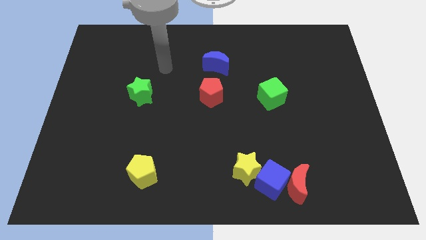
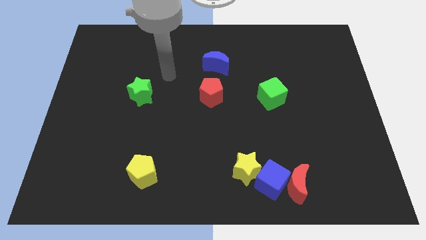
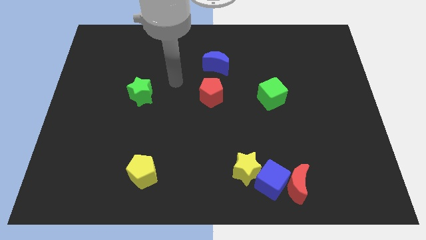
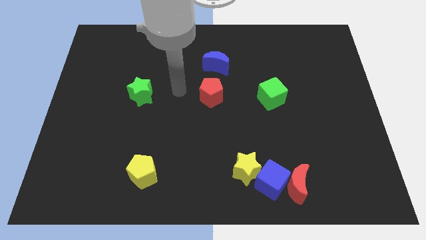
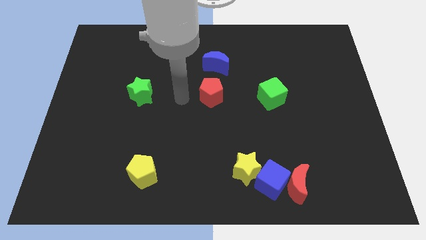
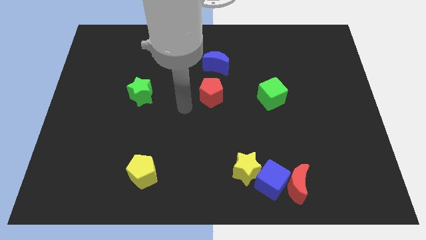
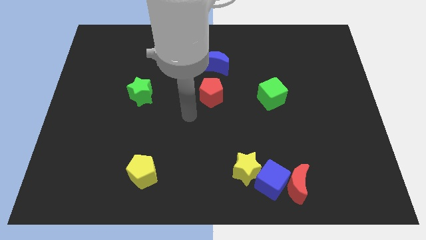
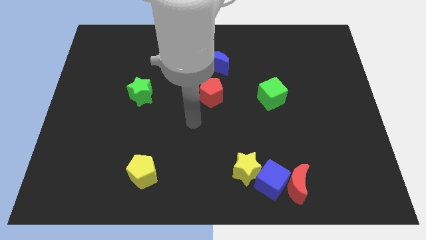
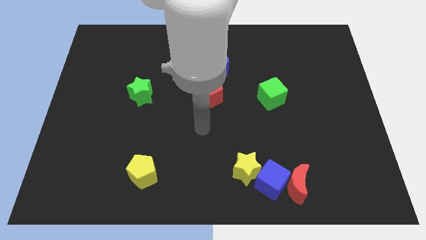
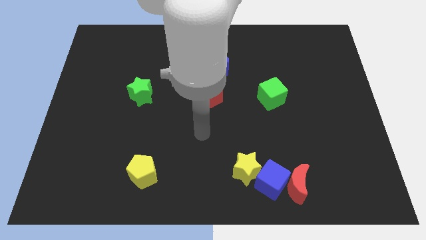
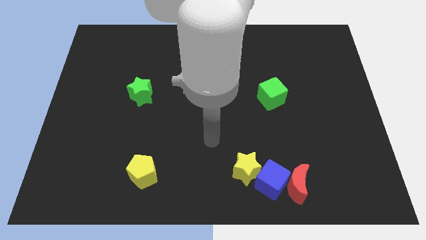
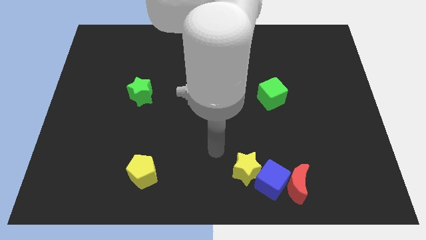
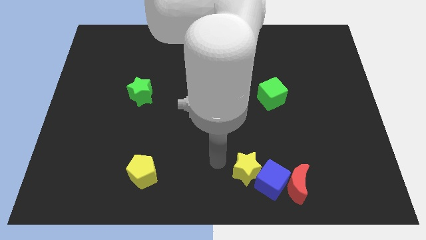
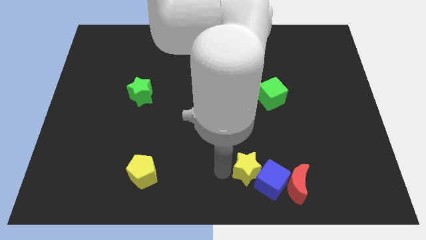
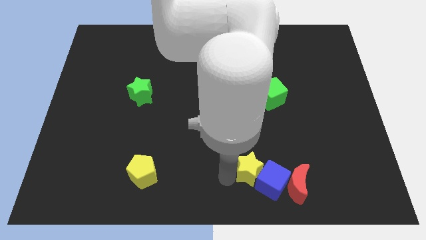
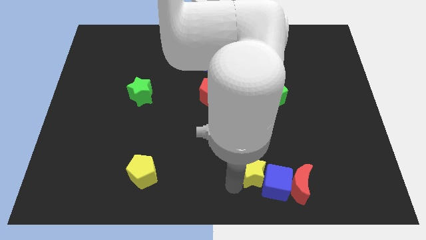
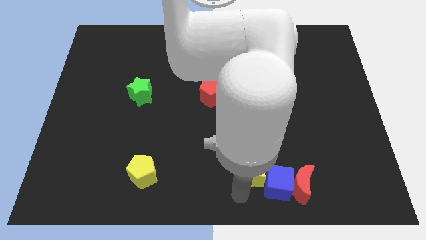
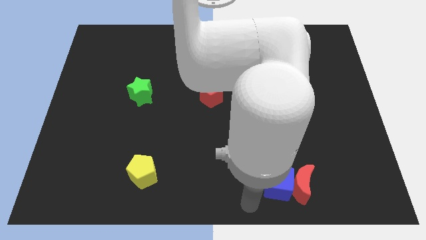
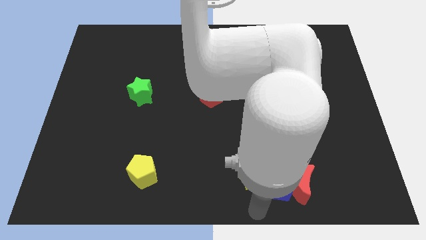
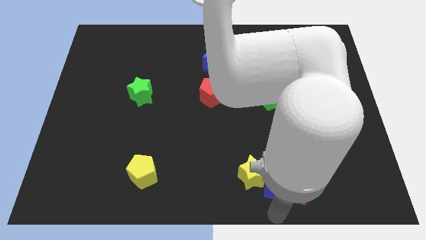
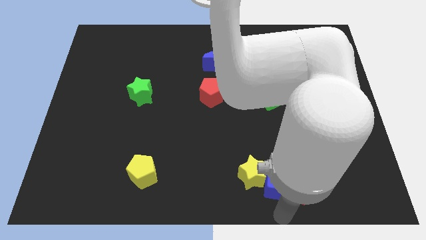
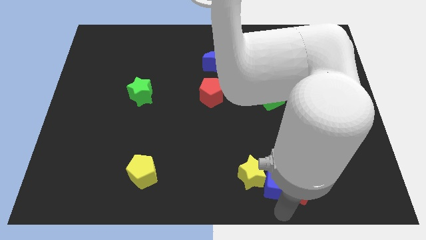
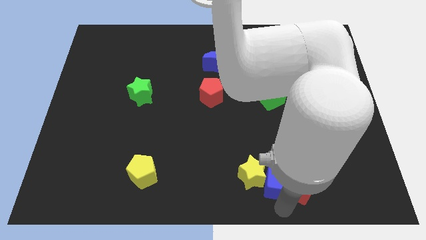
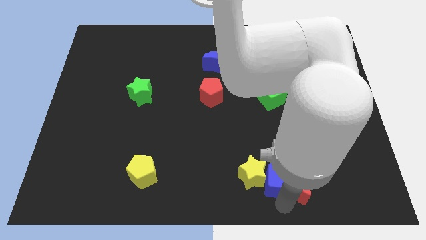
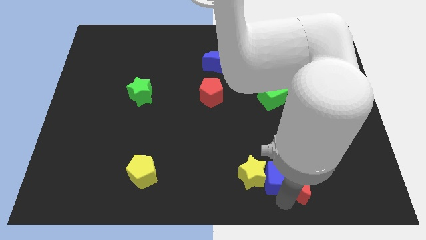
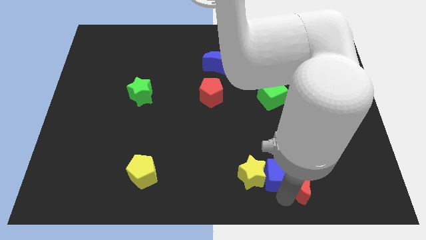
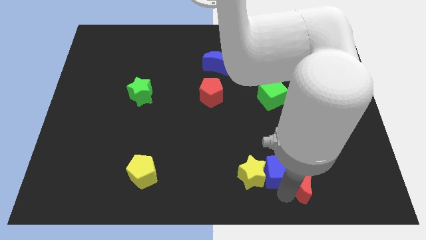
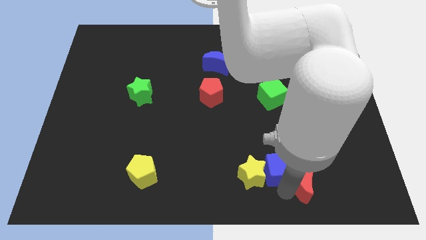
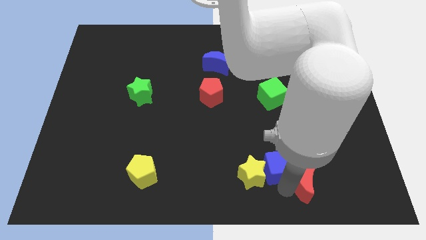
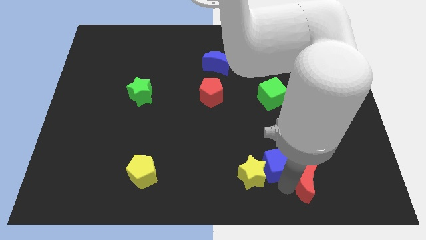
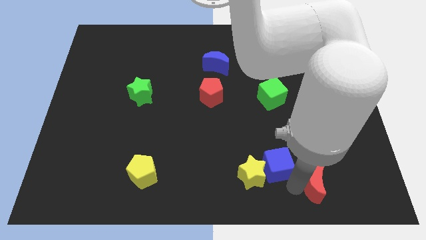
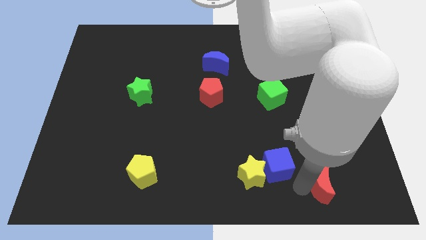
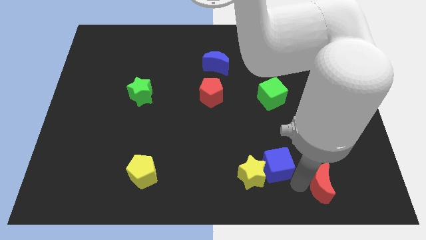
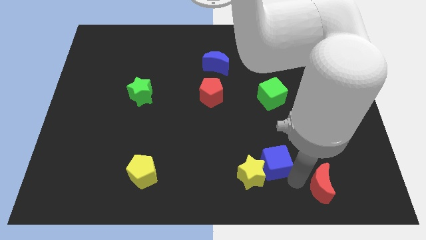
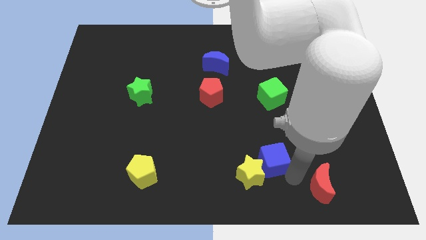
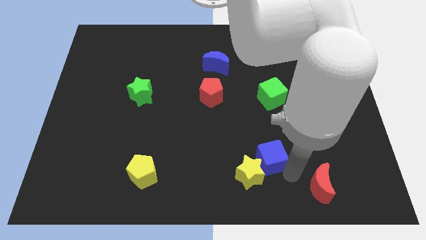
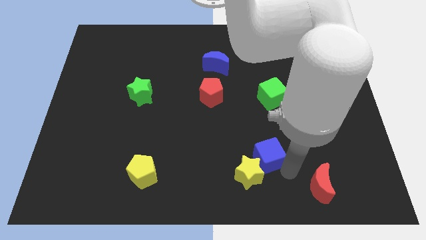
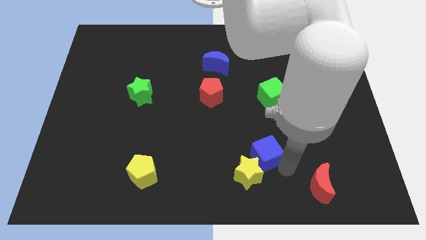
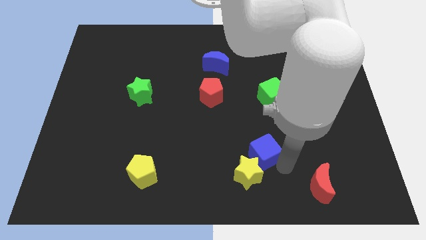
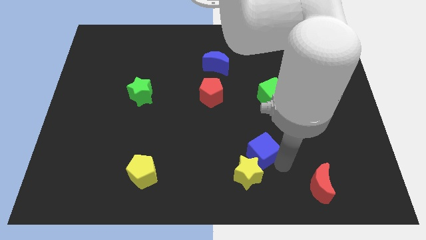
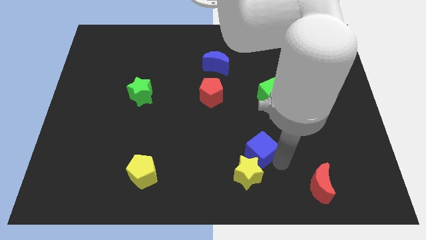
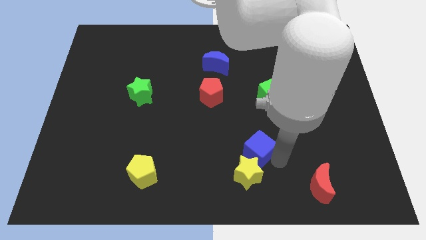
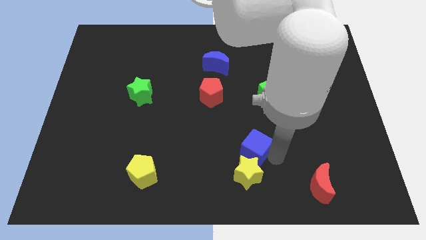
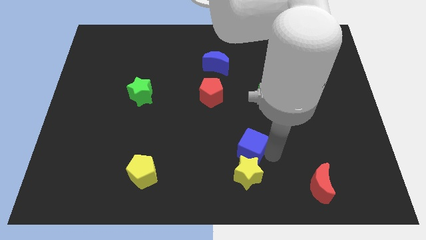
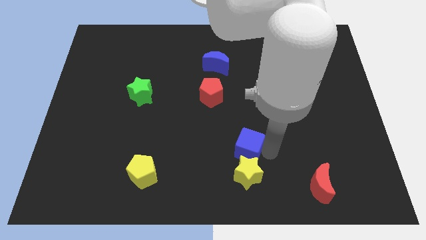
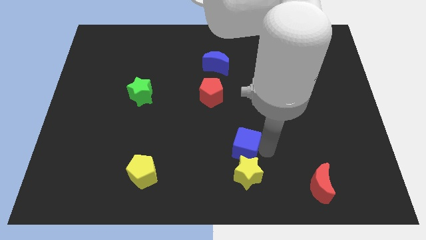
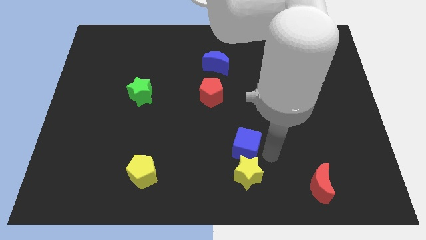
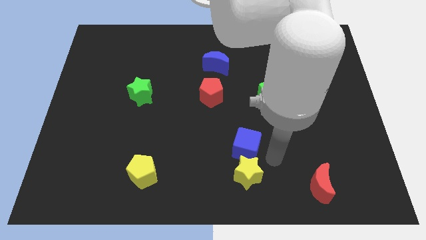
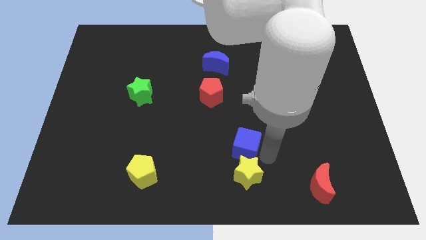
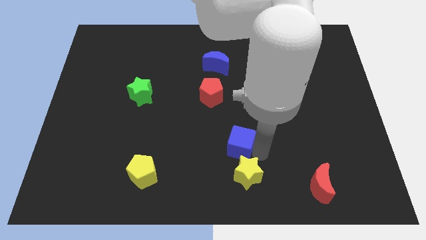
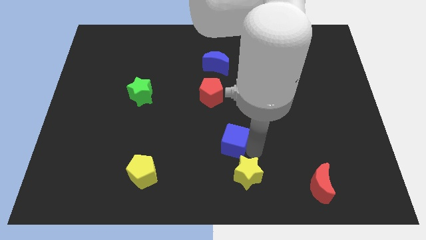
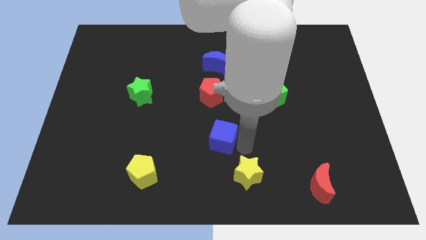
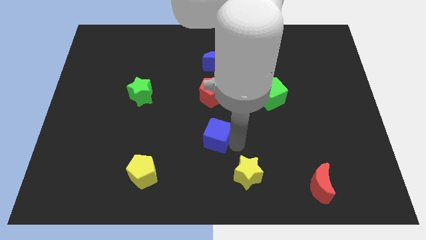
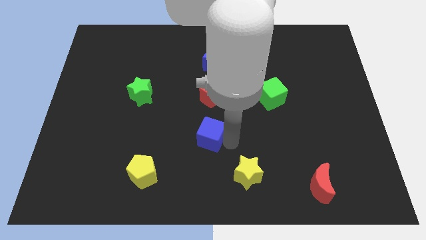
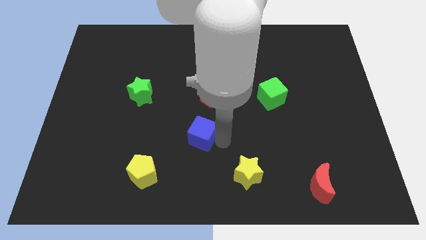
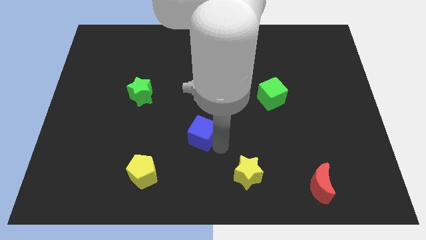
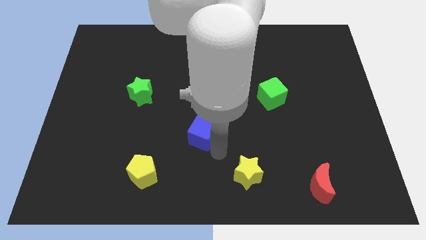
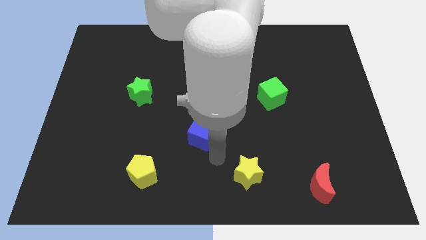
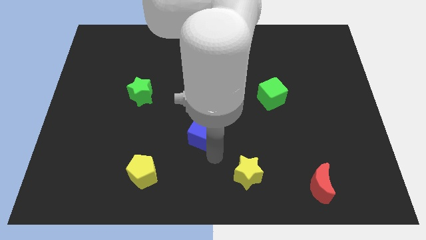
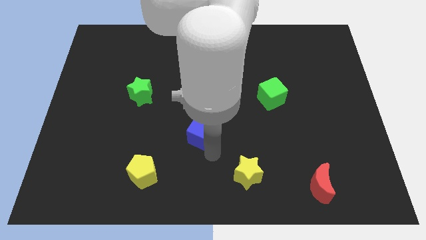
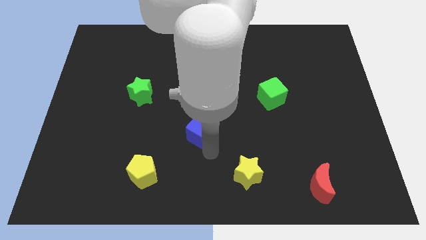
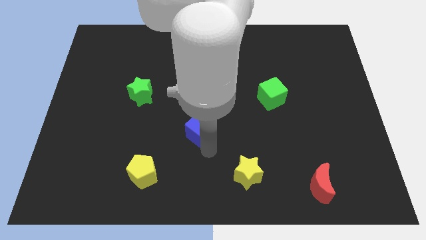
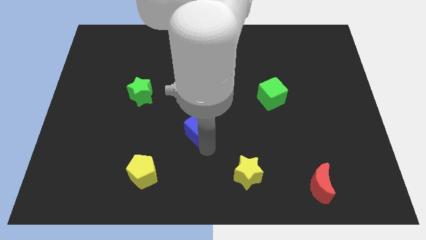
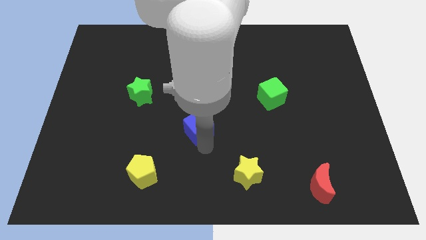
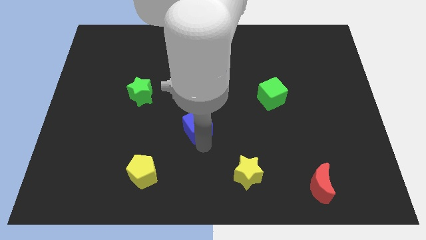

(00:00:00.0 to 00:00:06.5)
slide the blue cube diagonally upwards and left

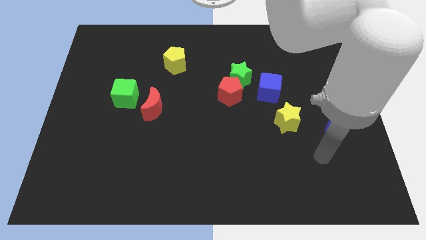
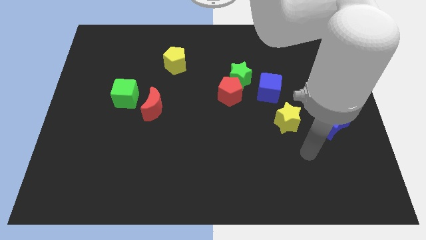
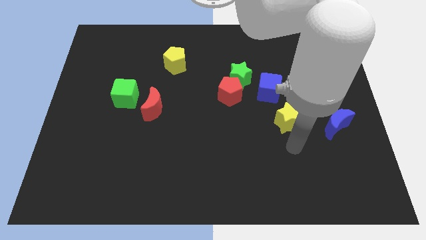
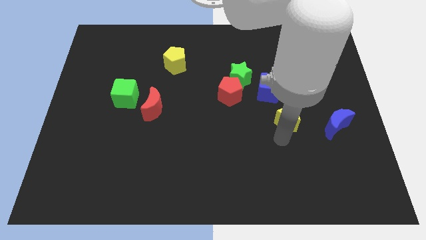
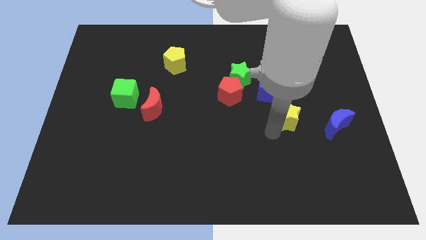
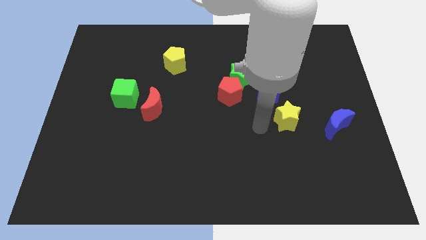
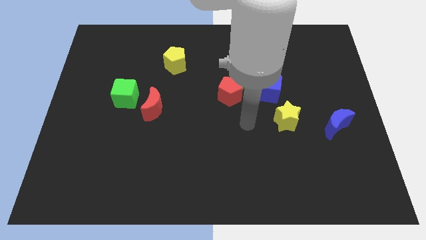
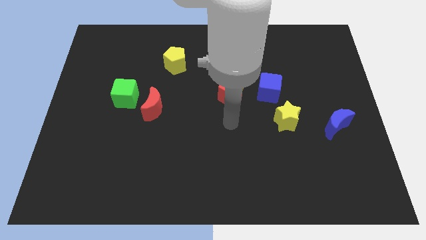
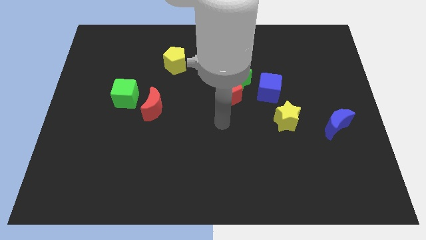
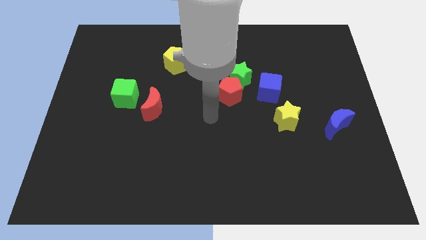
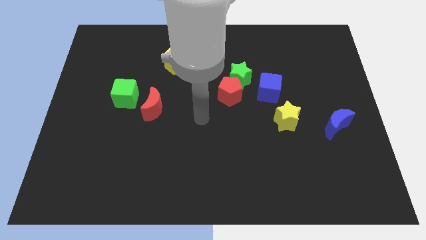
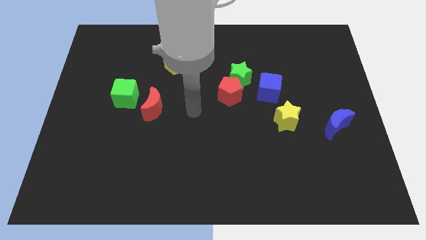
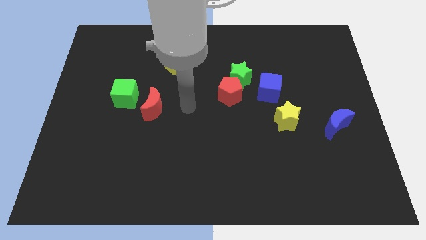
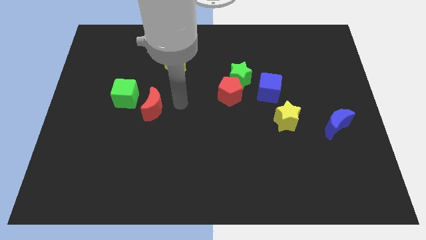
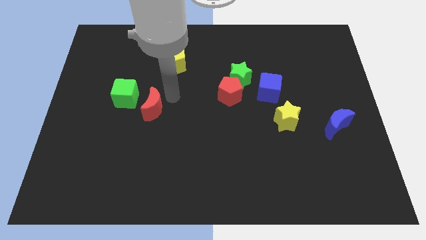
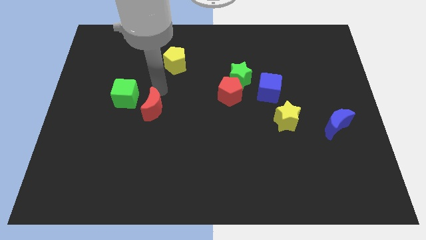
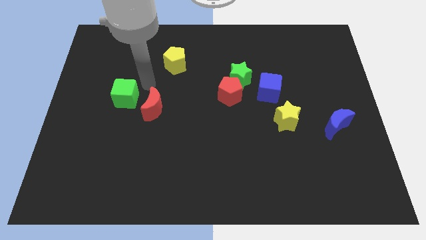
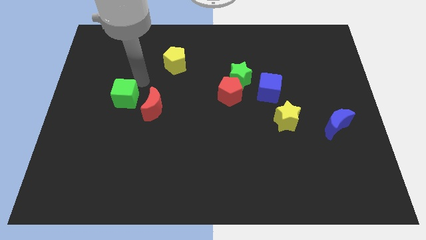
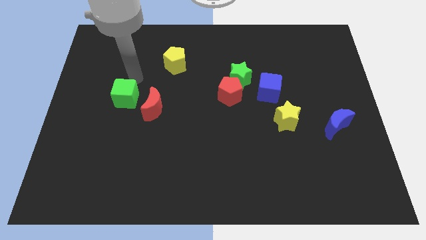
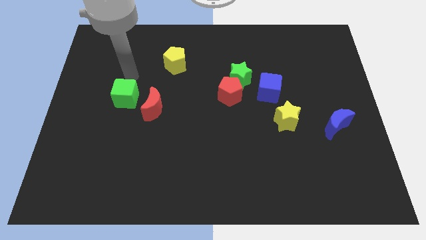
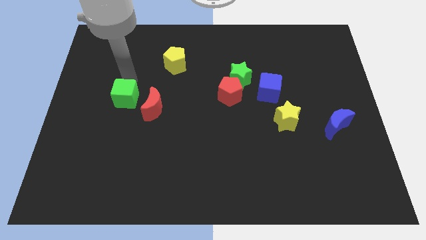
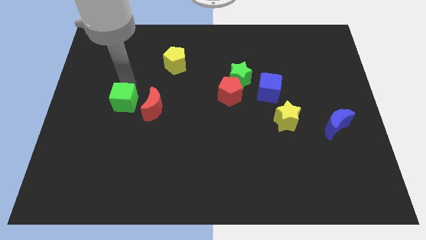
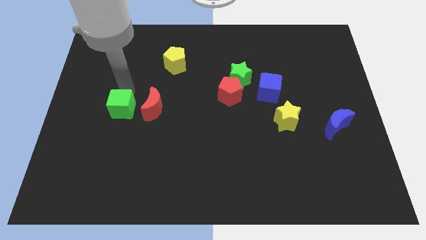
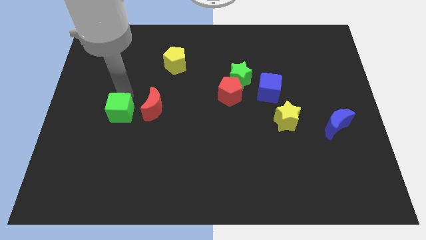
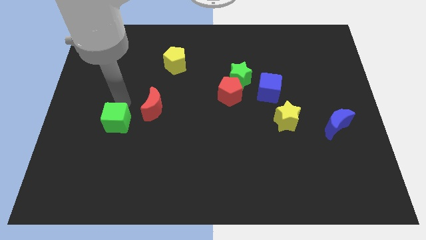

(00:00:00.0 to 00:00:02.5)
slightly slide the green cube downwards
